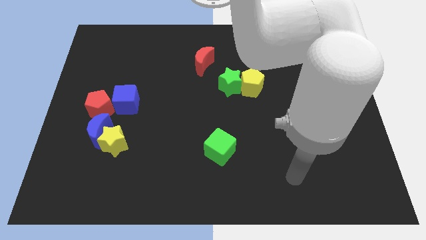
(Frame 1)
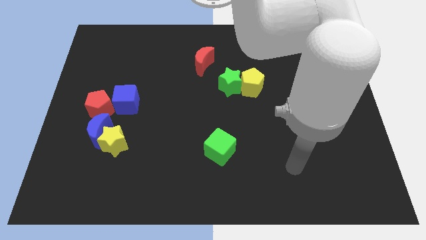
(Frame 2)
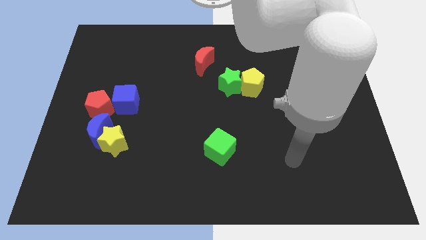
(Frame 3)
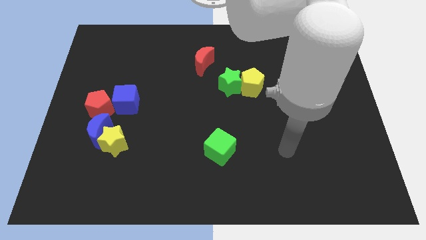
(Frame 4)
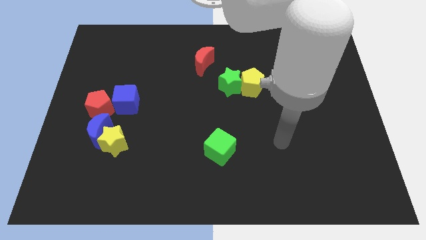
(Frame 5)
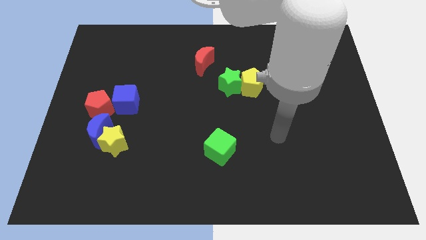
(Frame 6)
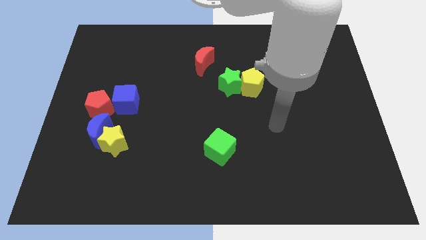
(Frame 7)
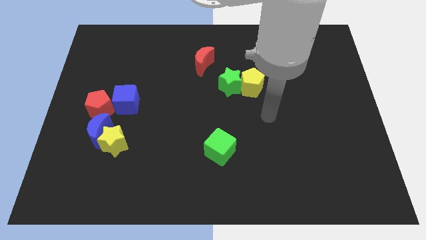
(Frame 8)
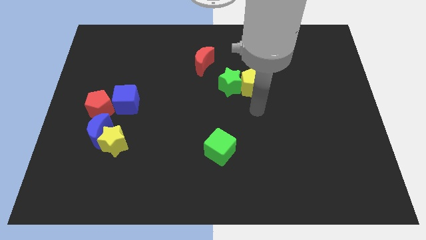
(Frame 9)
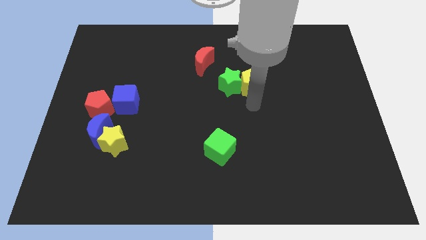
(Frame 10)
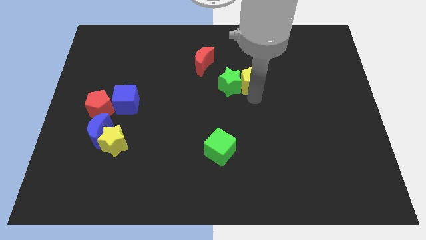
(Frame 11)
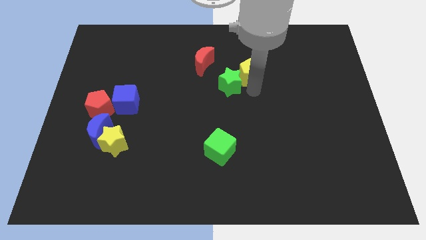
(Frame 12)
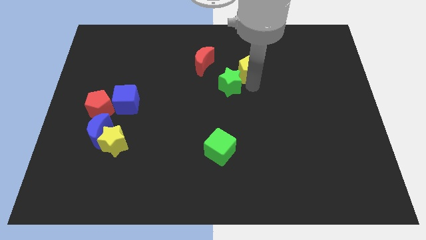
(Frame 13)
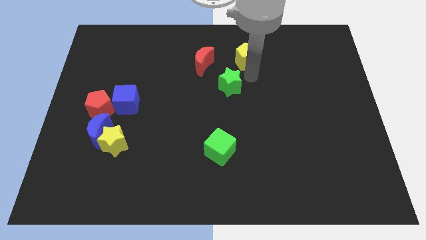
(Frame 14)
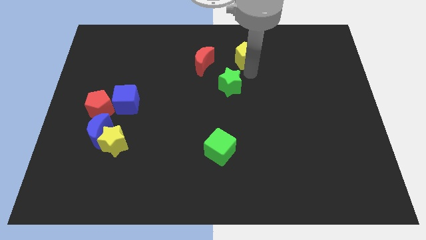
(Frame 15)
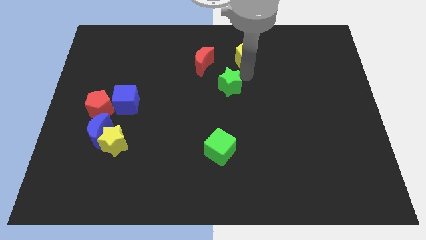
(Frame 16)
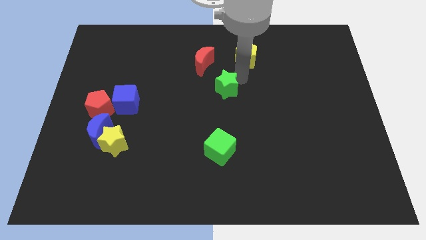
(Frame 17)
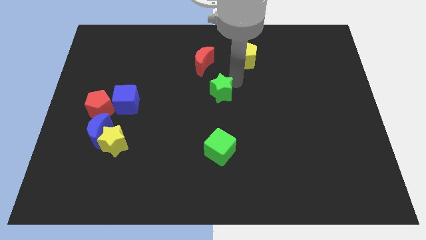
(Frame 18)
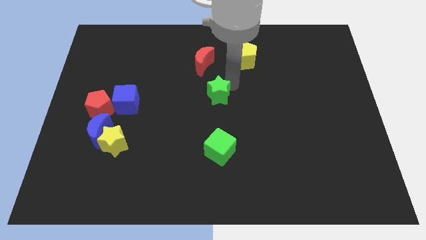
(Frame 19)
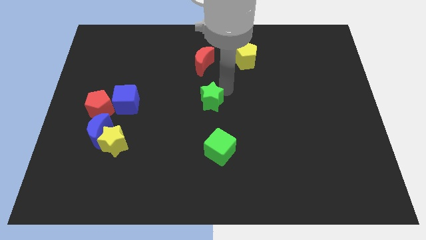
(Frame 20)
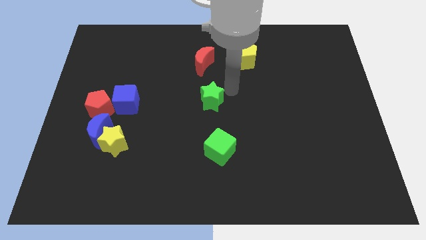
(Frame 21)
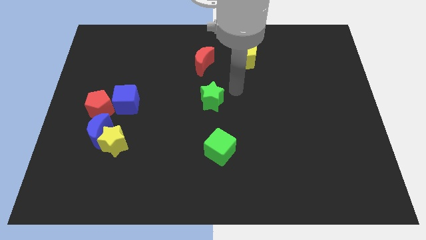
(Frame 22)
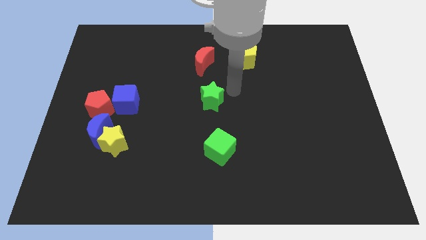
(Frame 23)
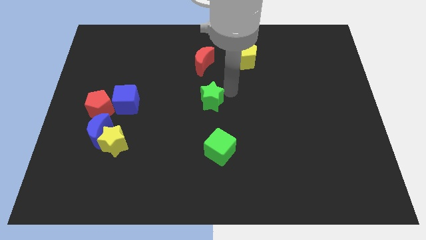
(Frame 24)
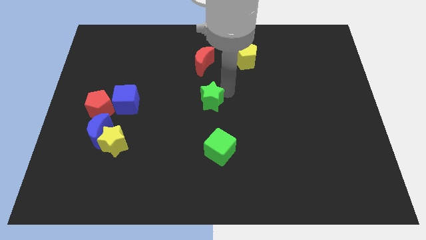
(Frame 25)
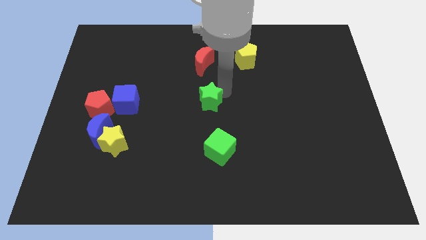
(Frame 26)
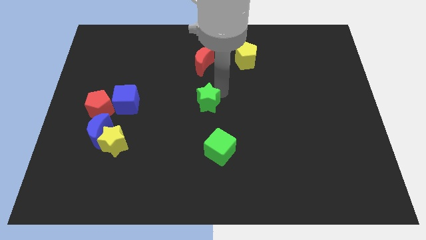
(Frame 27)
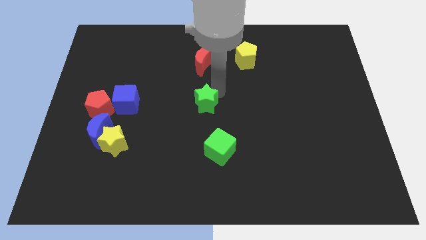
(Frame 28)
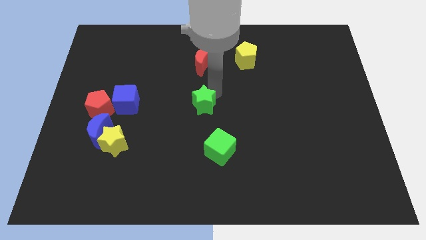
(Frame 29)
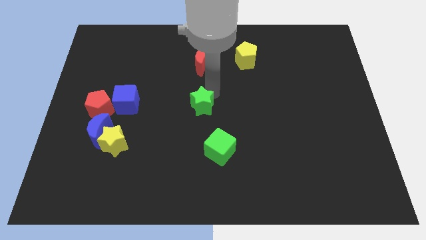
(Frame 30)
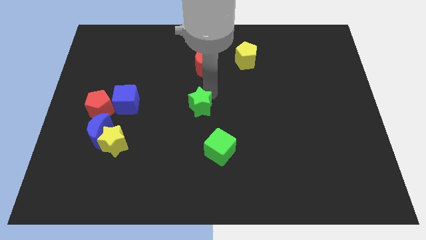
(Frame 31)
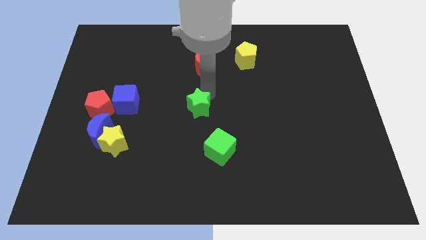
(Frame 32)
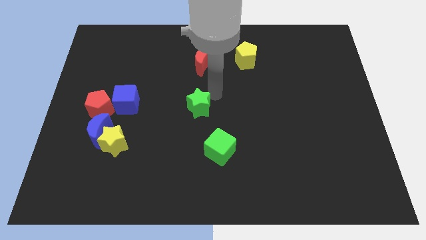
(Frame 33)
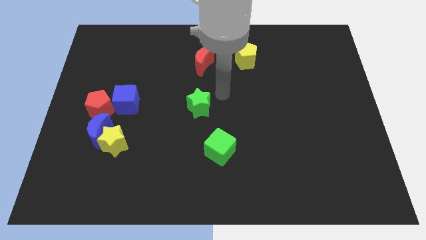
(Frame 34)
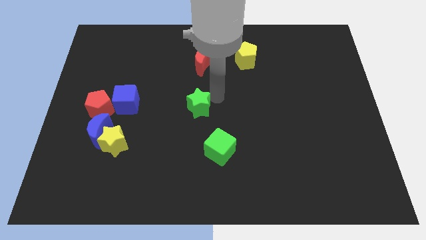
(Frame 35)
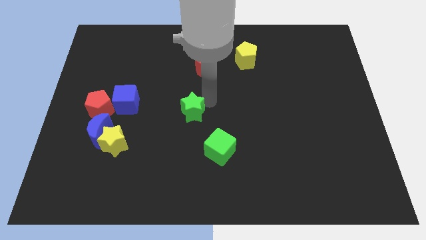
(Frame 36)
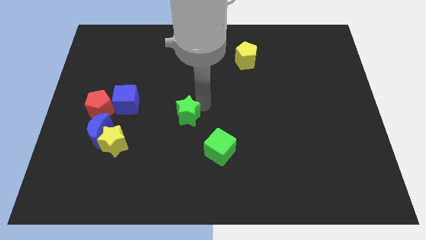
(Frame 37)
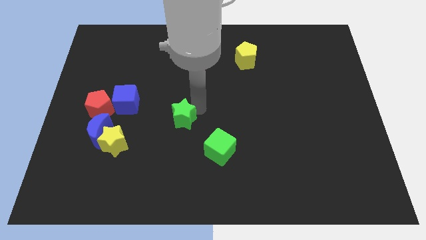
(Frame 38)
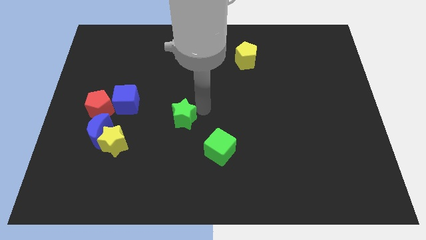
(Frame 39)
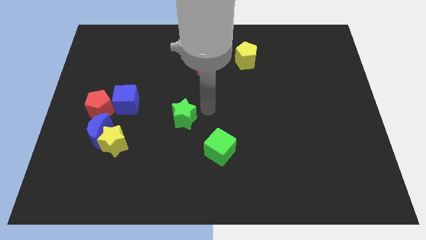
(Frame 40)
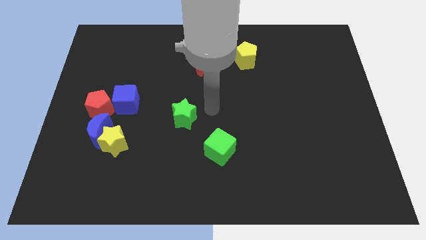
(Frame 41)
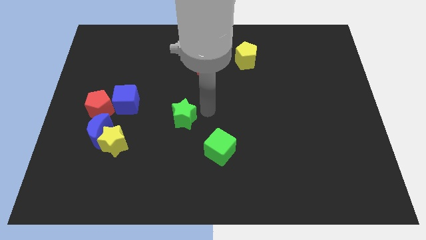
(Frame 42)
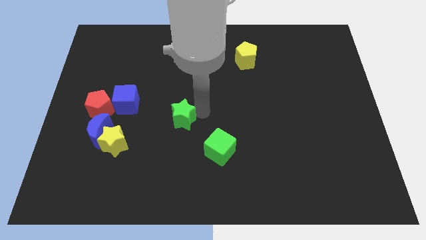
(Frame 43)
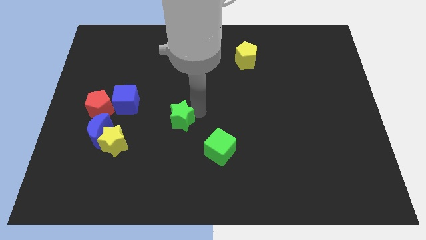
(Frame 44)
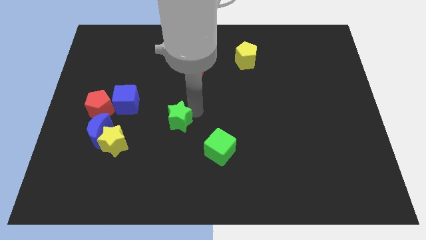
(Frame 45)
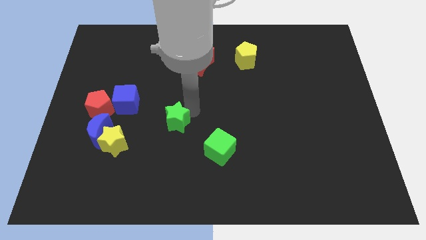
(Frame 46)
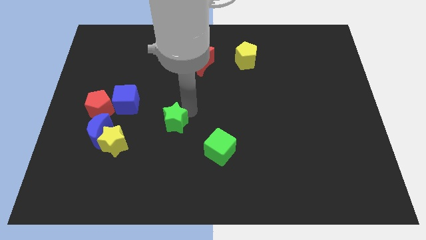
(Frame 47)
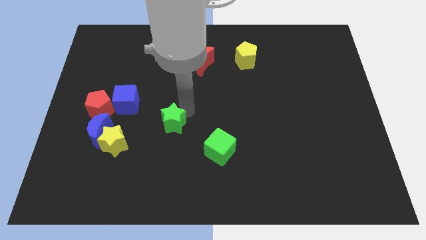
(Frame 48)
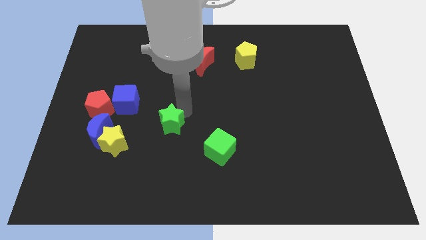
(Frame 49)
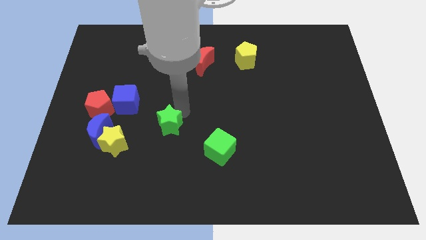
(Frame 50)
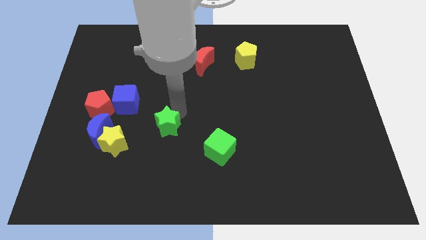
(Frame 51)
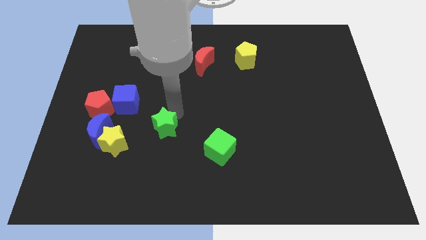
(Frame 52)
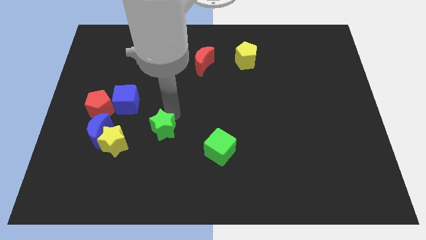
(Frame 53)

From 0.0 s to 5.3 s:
push the green star down and to the left diagonally

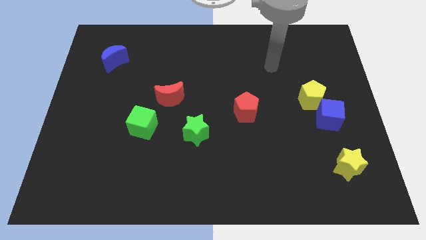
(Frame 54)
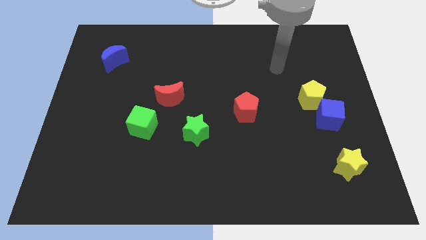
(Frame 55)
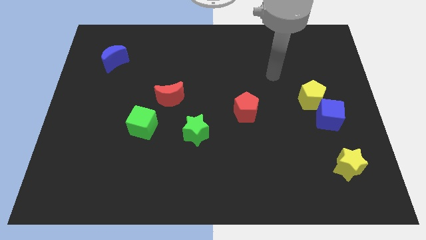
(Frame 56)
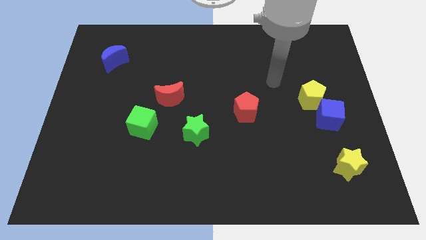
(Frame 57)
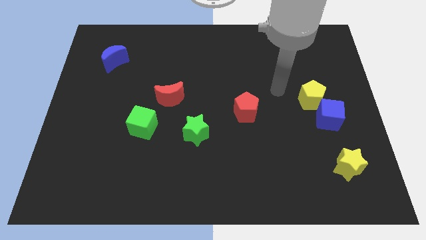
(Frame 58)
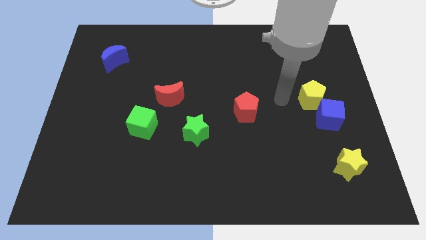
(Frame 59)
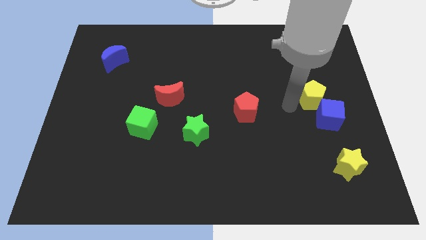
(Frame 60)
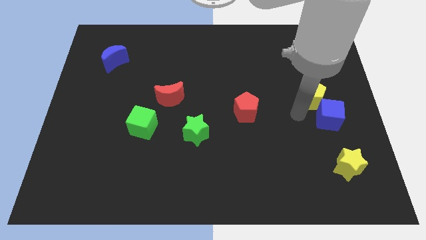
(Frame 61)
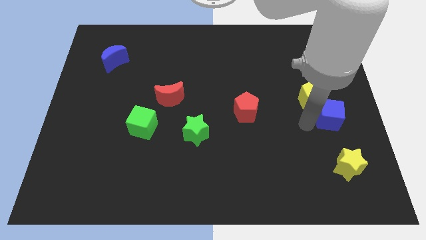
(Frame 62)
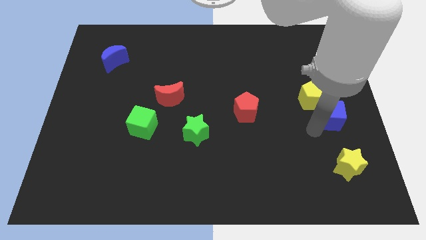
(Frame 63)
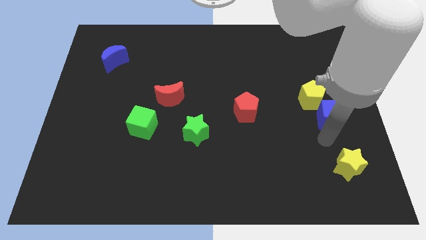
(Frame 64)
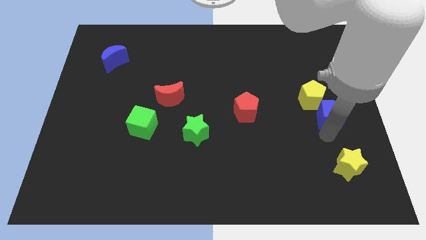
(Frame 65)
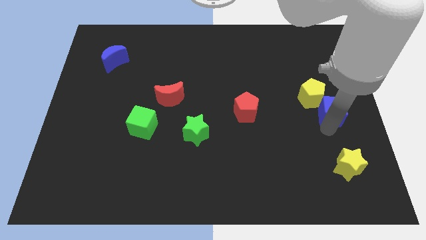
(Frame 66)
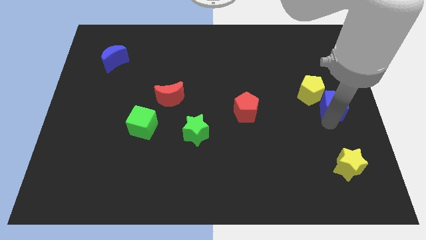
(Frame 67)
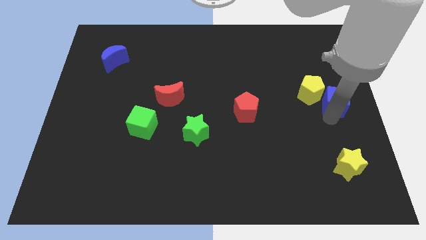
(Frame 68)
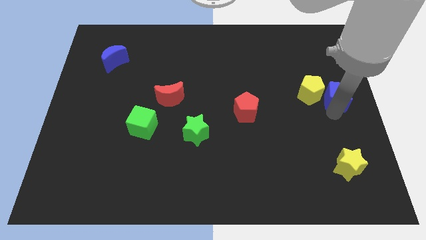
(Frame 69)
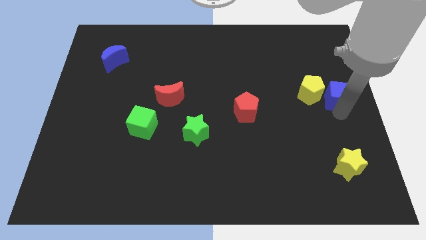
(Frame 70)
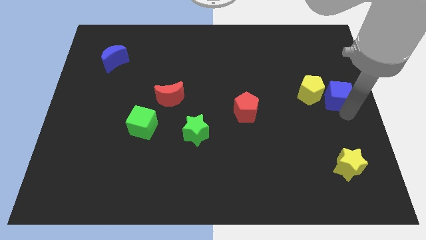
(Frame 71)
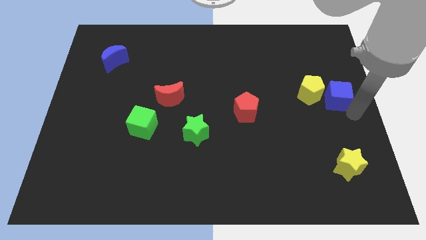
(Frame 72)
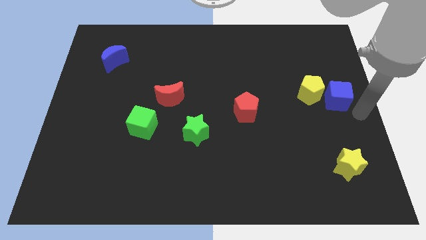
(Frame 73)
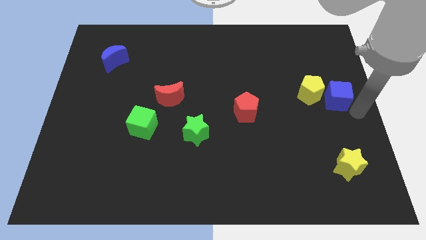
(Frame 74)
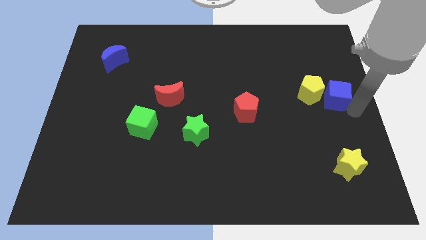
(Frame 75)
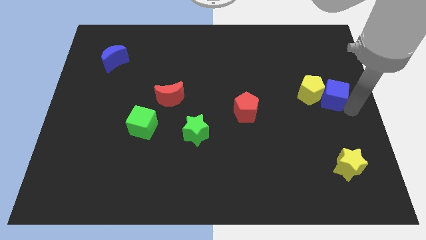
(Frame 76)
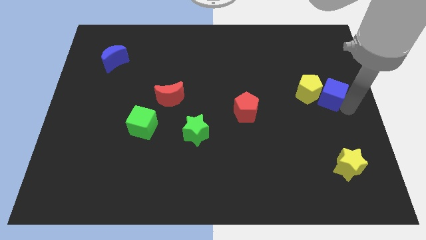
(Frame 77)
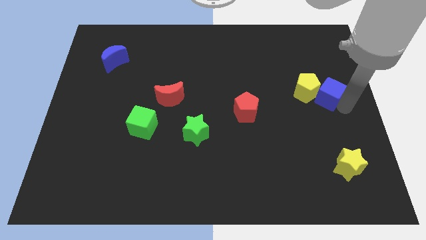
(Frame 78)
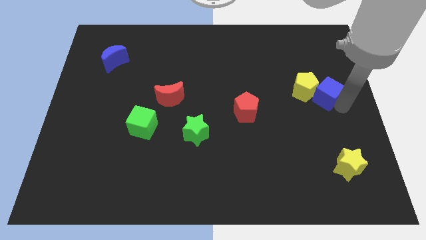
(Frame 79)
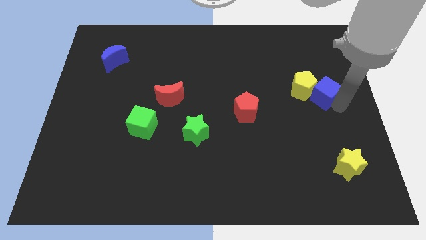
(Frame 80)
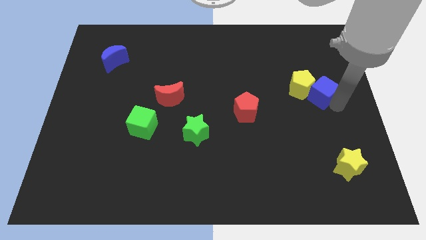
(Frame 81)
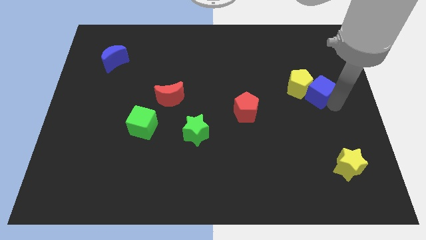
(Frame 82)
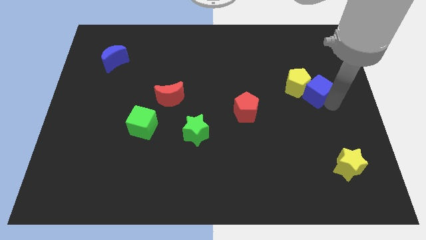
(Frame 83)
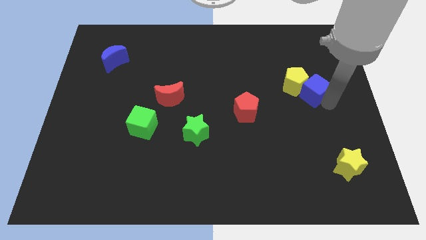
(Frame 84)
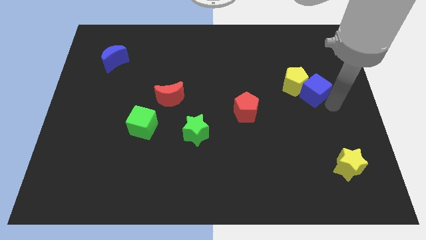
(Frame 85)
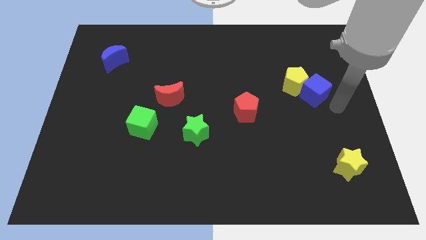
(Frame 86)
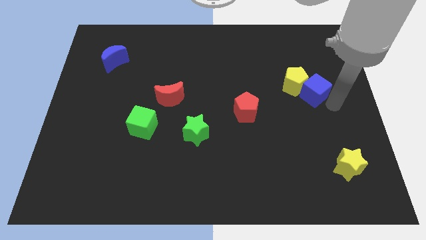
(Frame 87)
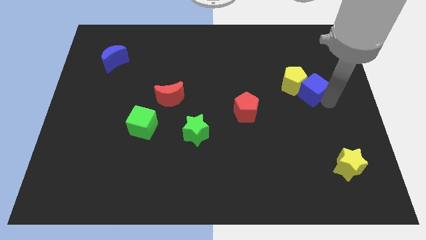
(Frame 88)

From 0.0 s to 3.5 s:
push the blue cube up and to the left diagonally slightly
